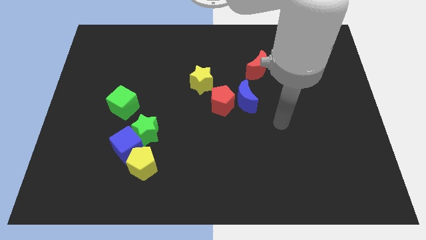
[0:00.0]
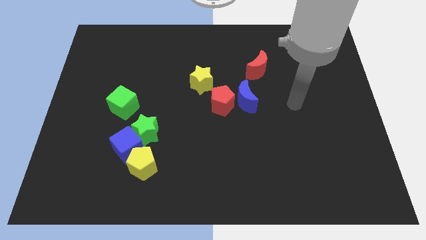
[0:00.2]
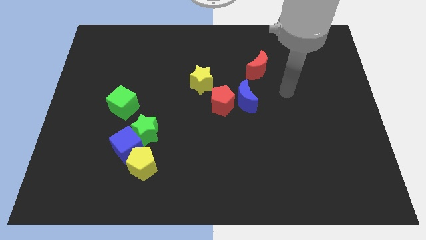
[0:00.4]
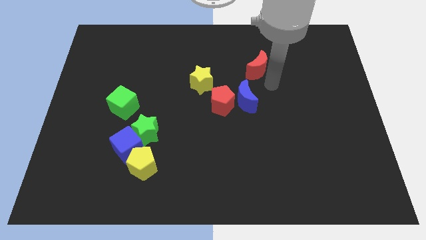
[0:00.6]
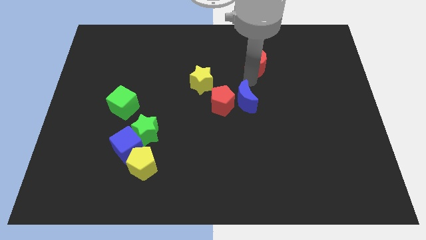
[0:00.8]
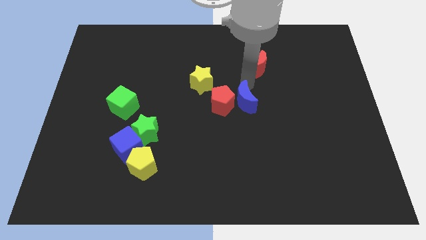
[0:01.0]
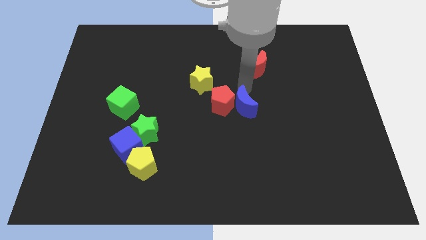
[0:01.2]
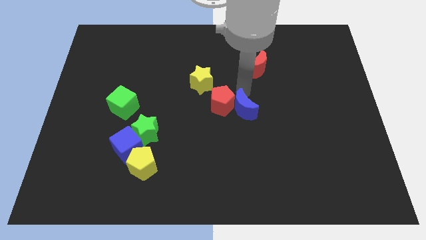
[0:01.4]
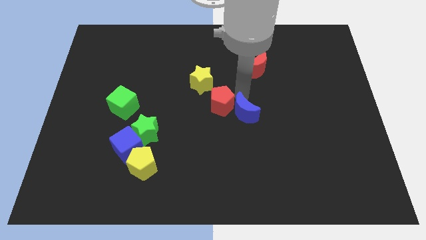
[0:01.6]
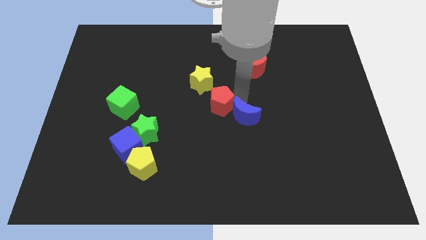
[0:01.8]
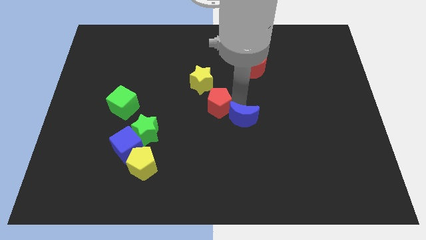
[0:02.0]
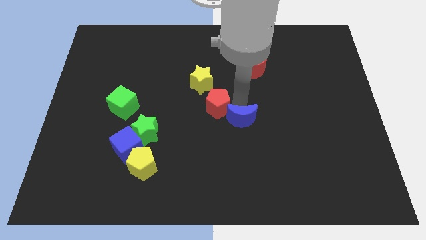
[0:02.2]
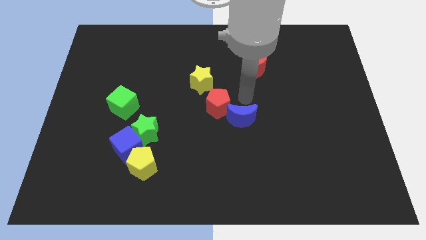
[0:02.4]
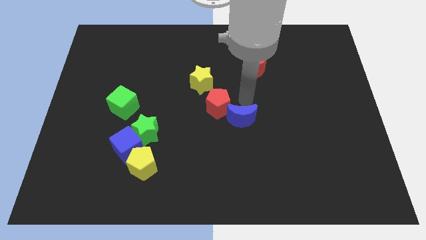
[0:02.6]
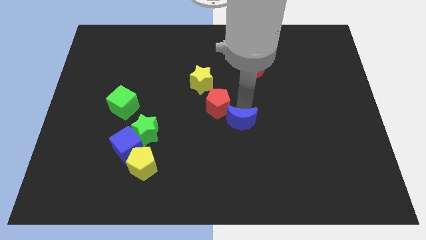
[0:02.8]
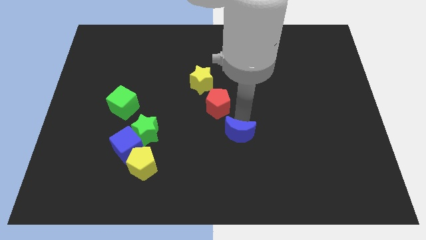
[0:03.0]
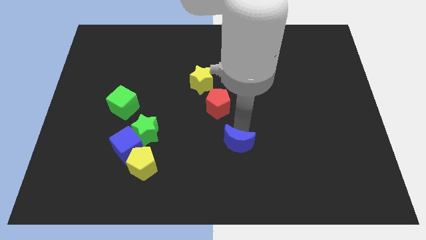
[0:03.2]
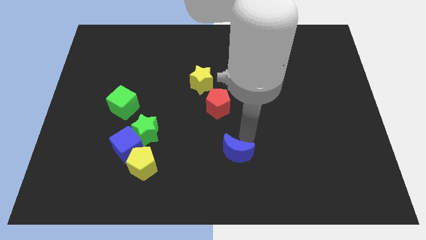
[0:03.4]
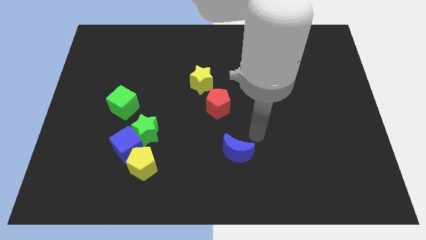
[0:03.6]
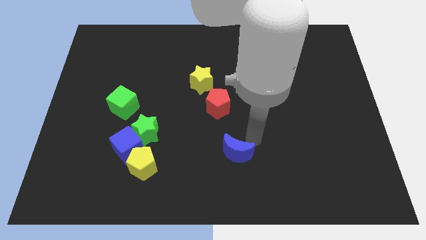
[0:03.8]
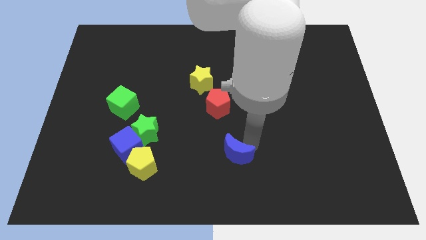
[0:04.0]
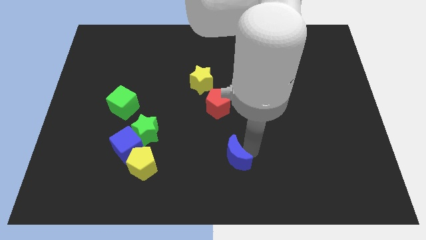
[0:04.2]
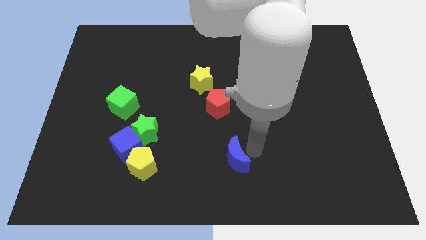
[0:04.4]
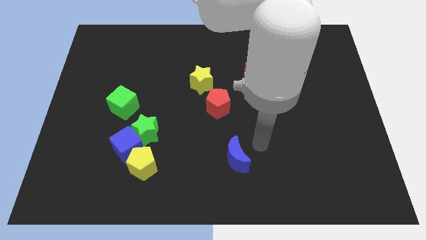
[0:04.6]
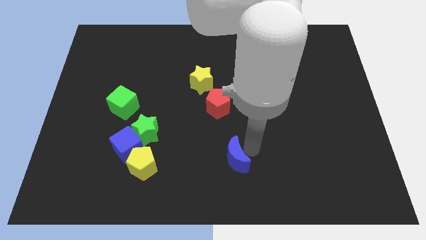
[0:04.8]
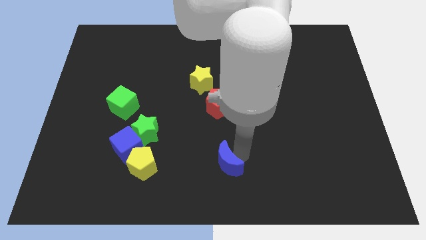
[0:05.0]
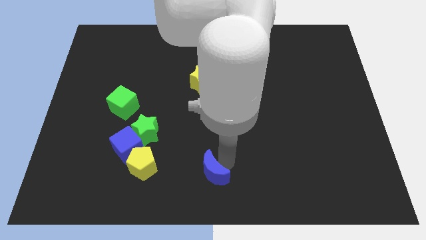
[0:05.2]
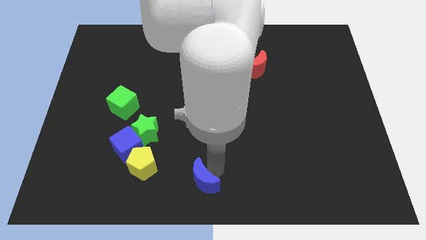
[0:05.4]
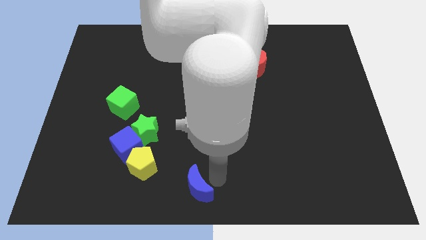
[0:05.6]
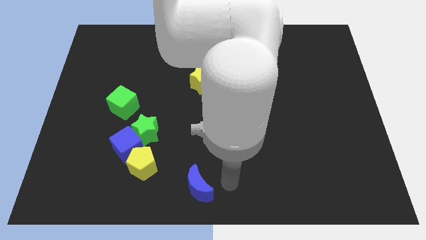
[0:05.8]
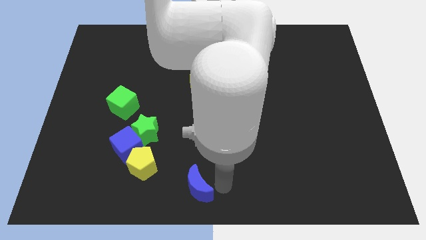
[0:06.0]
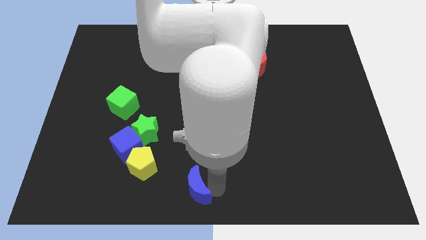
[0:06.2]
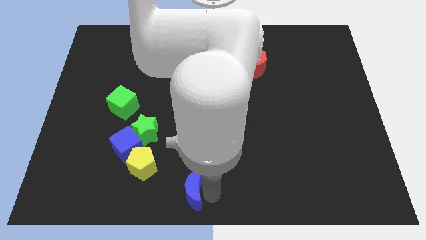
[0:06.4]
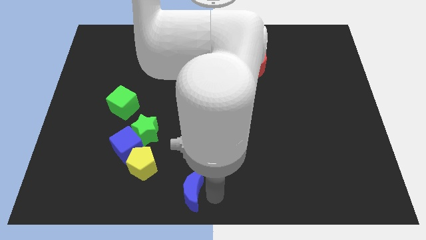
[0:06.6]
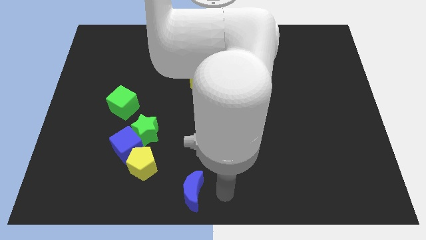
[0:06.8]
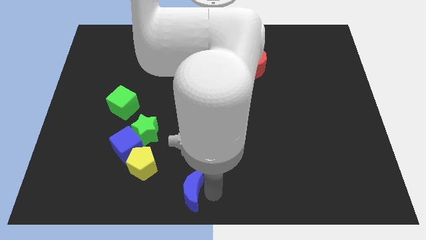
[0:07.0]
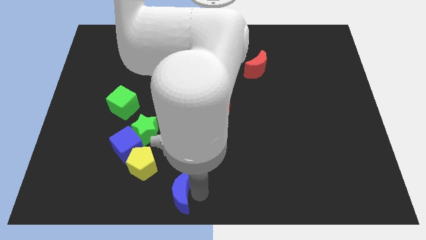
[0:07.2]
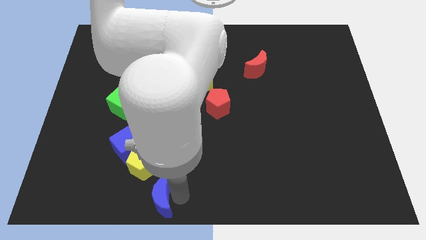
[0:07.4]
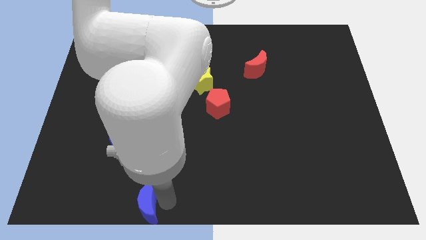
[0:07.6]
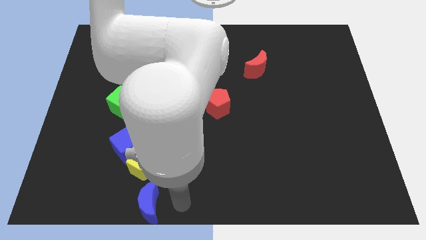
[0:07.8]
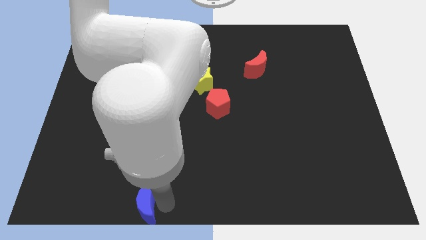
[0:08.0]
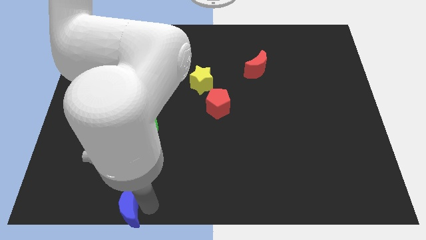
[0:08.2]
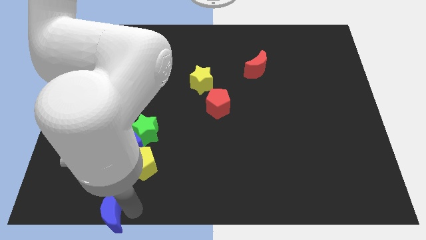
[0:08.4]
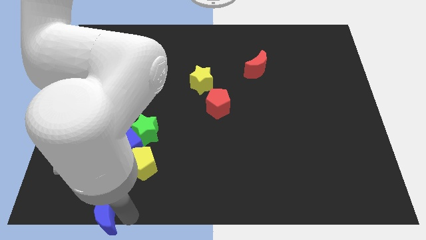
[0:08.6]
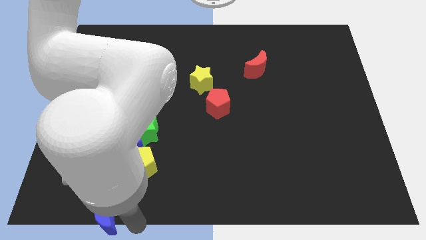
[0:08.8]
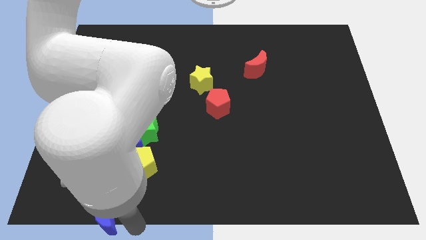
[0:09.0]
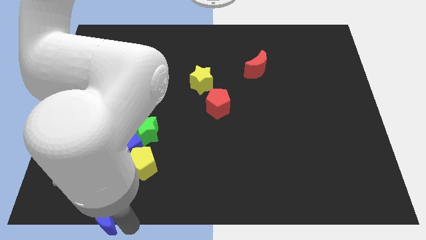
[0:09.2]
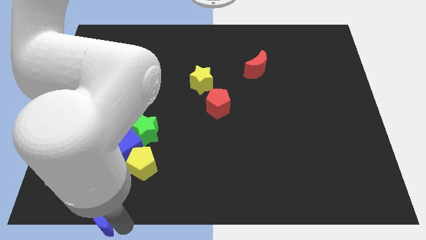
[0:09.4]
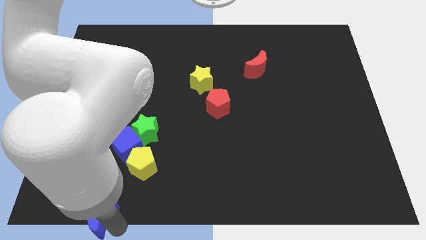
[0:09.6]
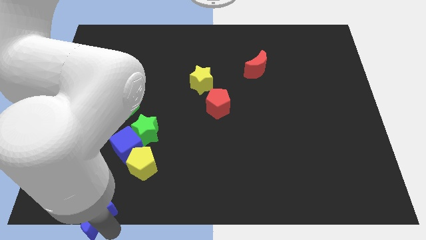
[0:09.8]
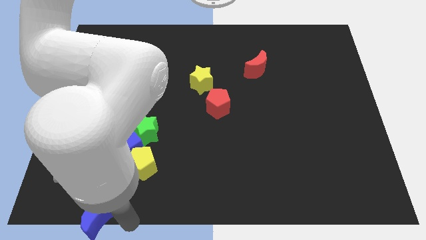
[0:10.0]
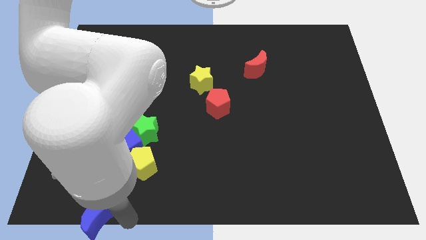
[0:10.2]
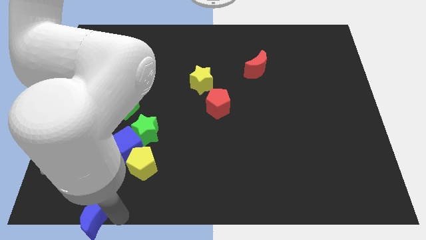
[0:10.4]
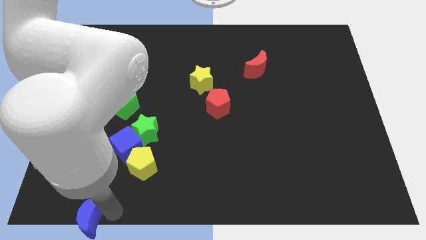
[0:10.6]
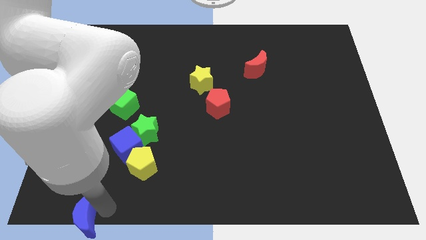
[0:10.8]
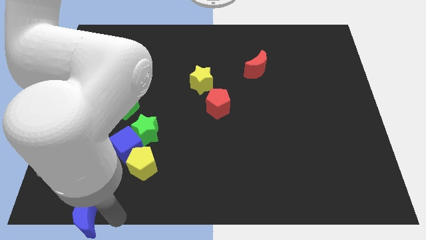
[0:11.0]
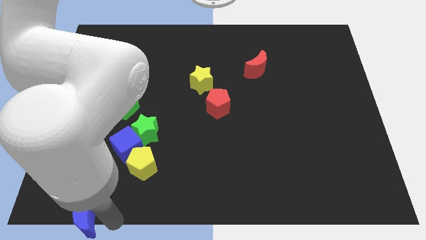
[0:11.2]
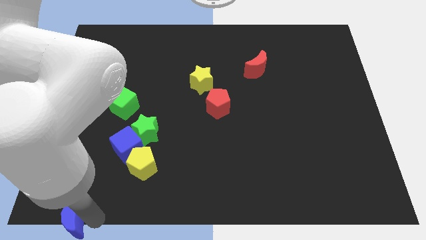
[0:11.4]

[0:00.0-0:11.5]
push the blue moon to the bottom left of the board
